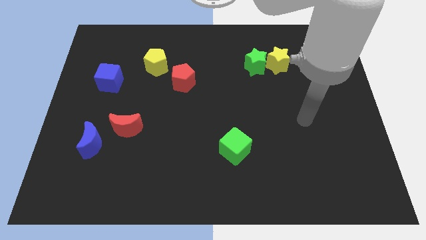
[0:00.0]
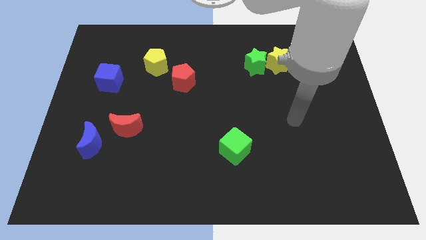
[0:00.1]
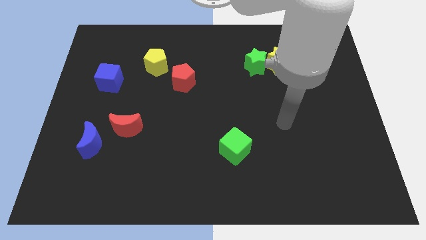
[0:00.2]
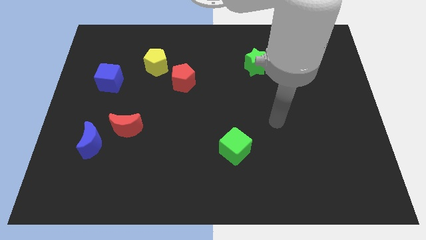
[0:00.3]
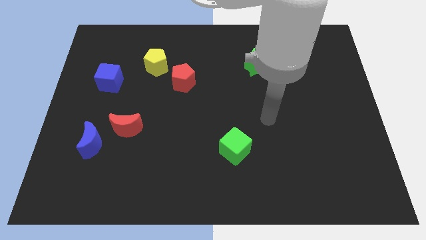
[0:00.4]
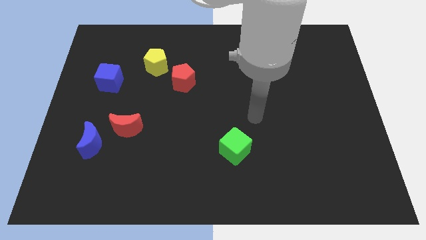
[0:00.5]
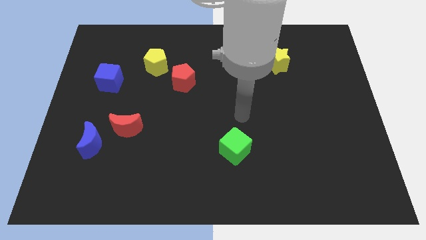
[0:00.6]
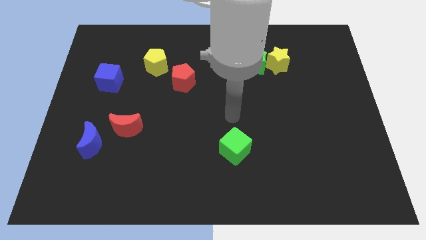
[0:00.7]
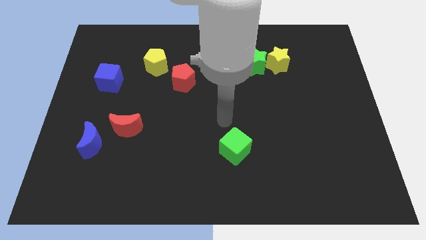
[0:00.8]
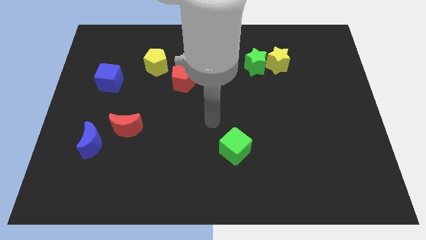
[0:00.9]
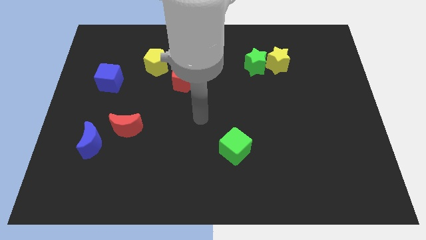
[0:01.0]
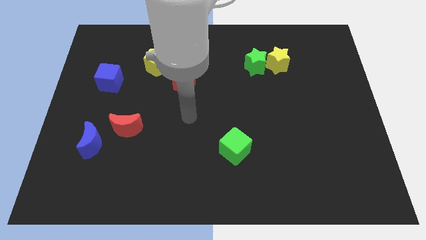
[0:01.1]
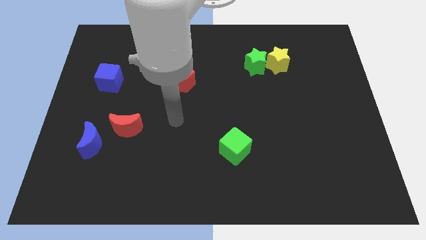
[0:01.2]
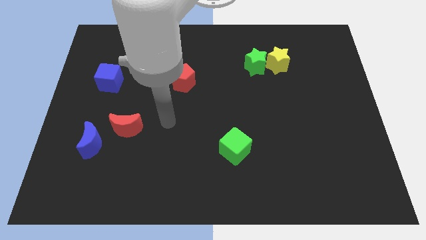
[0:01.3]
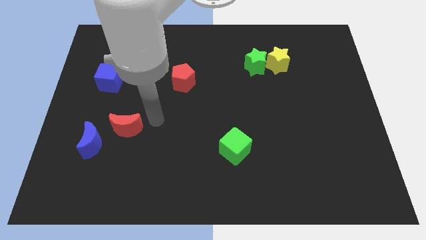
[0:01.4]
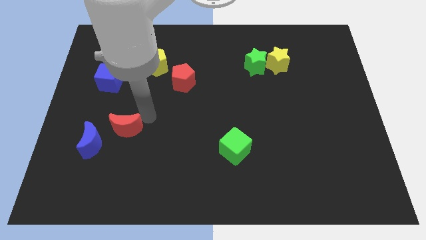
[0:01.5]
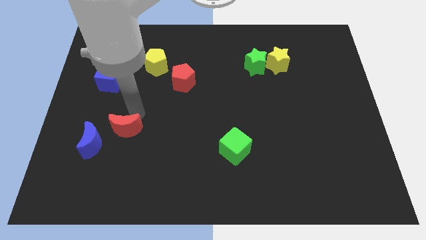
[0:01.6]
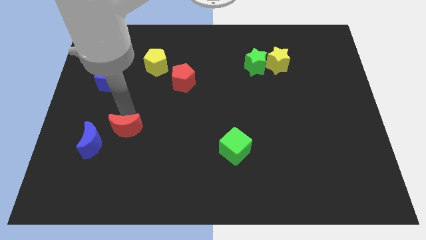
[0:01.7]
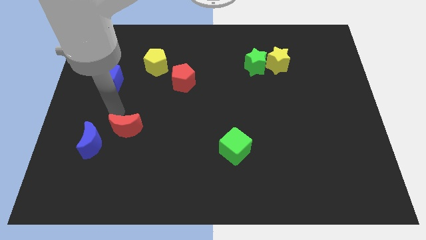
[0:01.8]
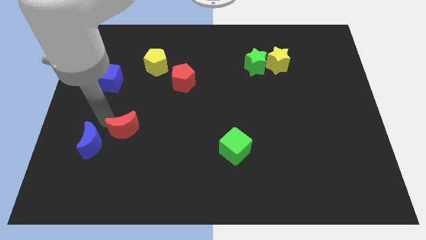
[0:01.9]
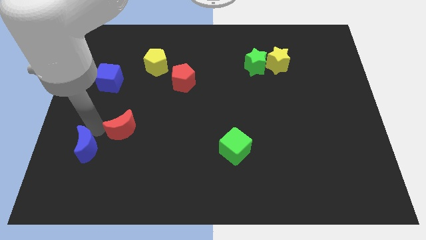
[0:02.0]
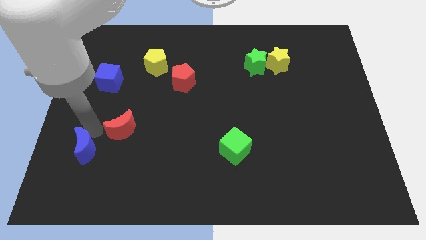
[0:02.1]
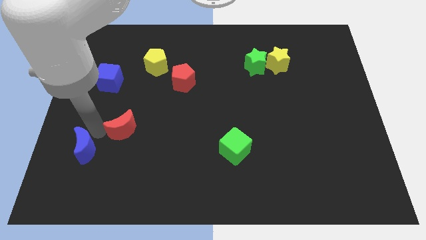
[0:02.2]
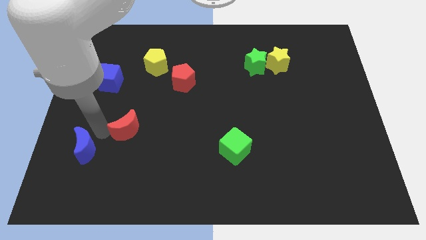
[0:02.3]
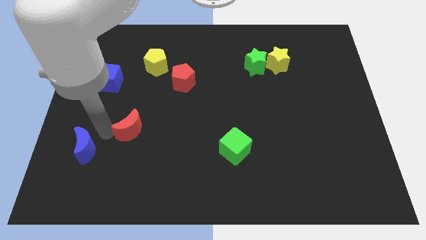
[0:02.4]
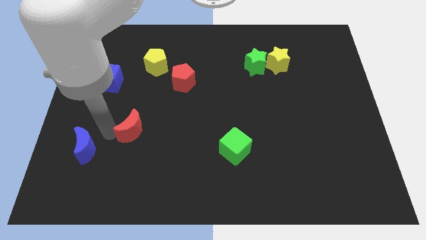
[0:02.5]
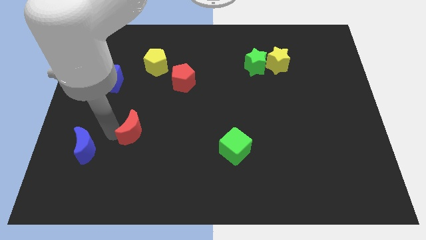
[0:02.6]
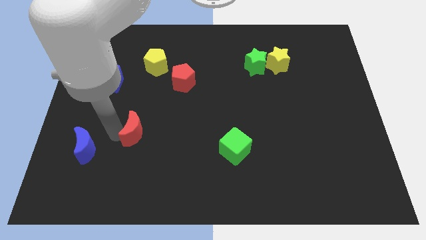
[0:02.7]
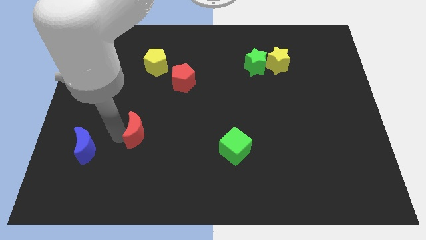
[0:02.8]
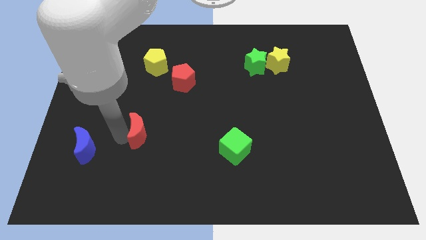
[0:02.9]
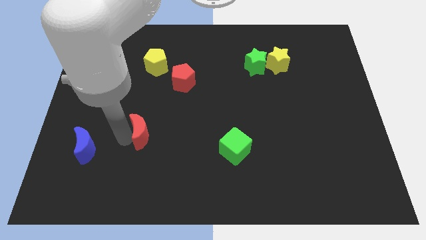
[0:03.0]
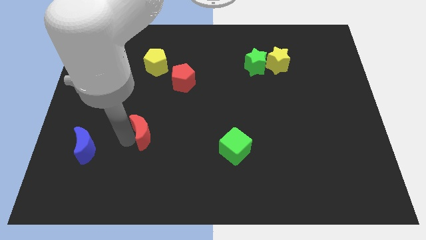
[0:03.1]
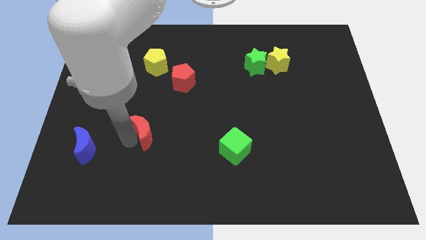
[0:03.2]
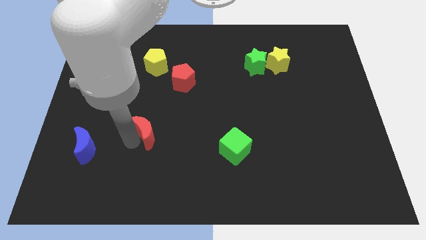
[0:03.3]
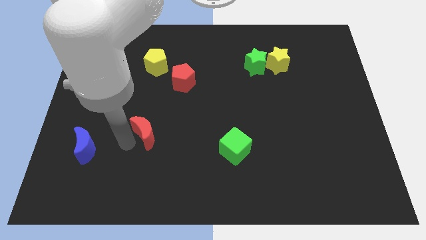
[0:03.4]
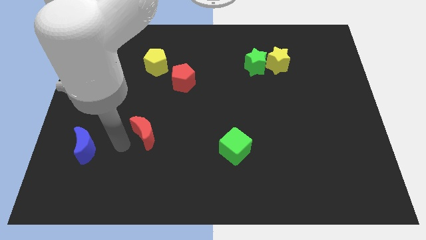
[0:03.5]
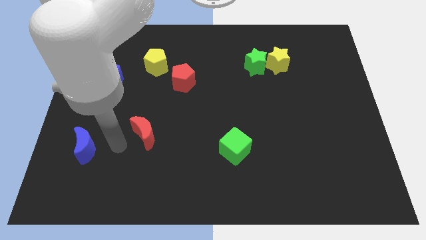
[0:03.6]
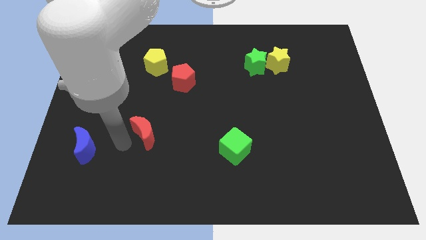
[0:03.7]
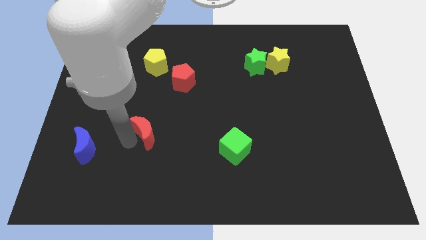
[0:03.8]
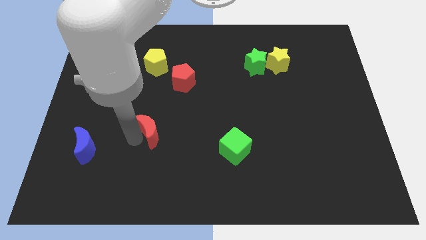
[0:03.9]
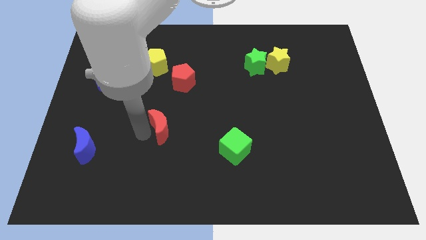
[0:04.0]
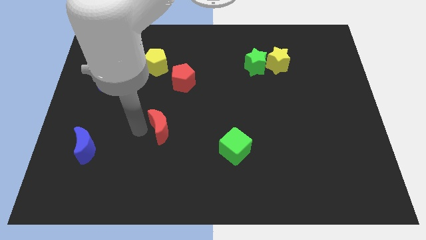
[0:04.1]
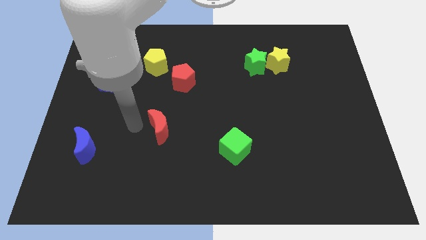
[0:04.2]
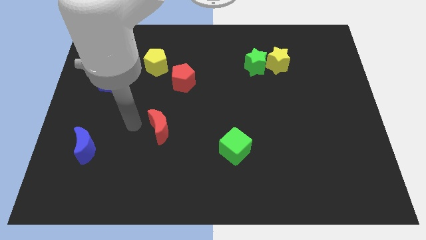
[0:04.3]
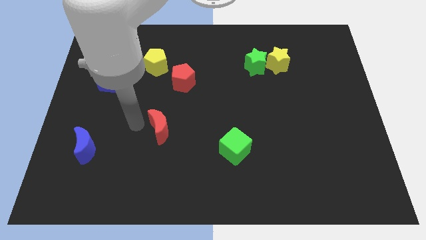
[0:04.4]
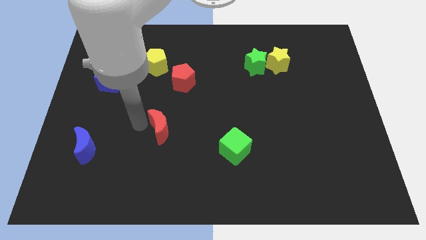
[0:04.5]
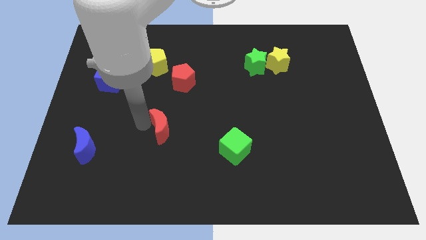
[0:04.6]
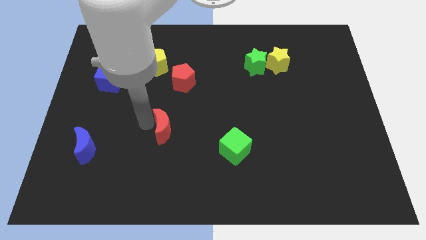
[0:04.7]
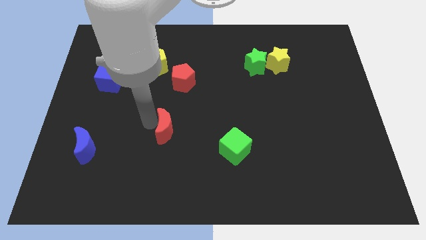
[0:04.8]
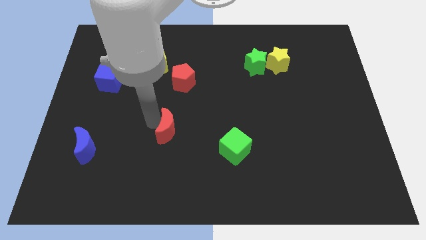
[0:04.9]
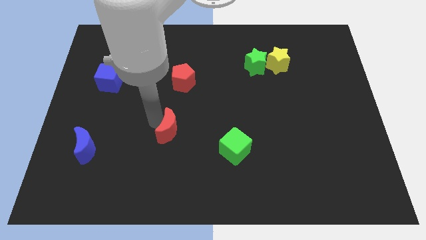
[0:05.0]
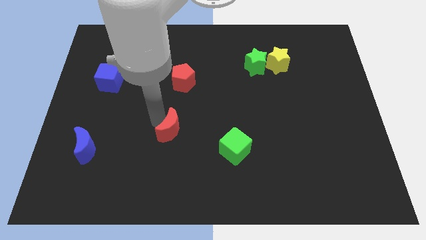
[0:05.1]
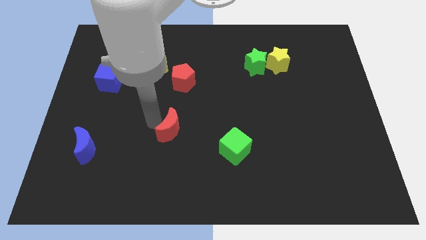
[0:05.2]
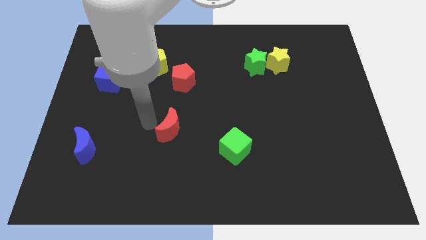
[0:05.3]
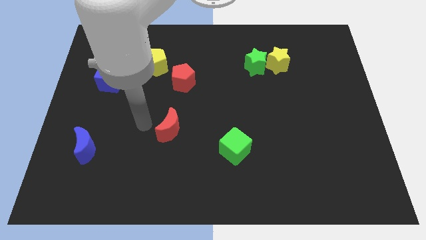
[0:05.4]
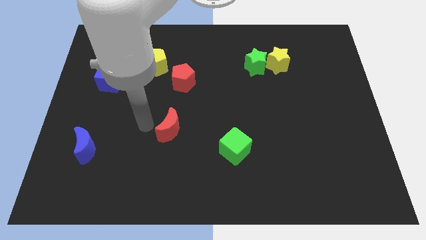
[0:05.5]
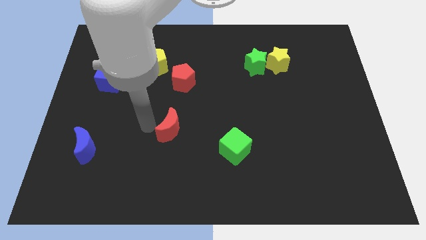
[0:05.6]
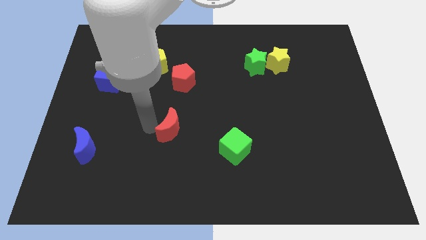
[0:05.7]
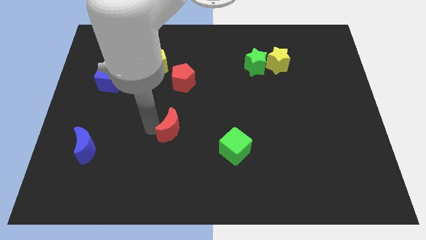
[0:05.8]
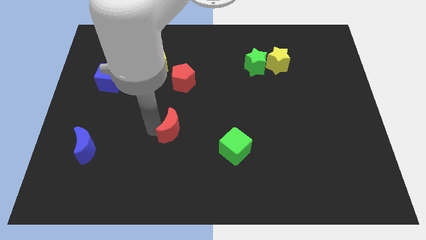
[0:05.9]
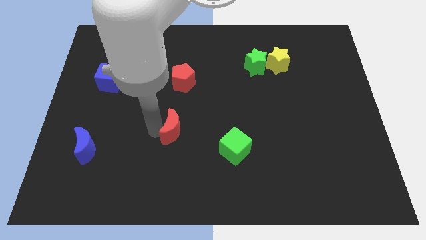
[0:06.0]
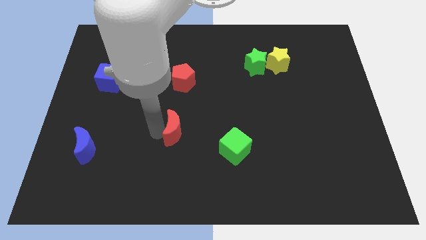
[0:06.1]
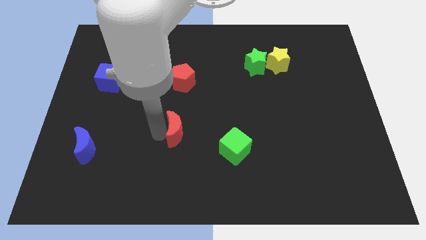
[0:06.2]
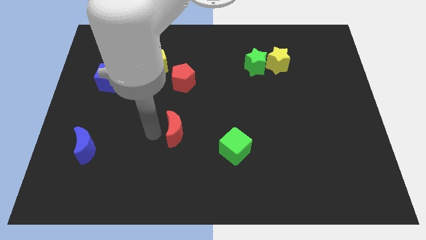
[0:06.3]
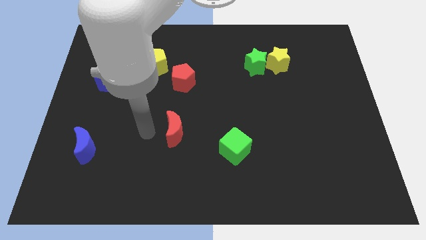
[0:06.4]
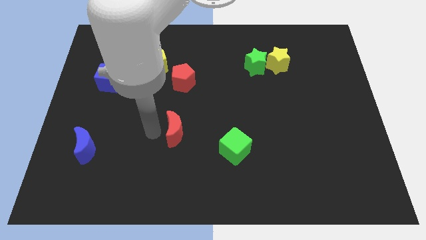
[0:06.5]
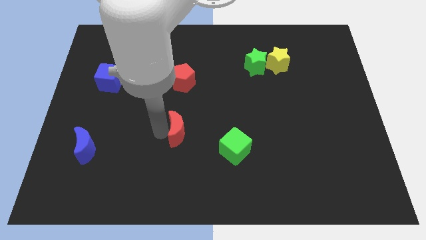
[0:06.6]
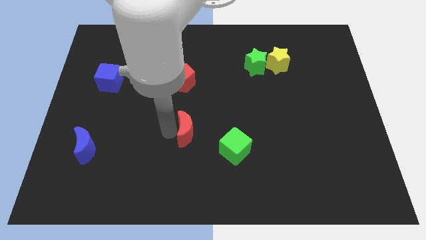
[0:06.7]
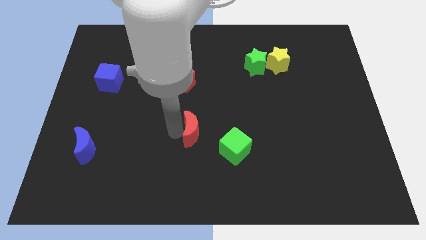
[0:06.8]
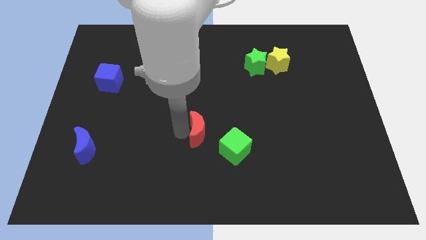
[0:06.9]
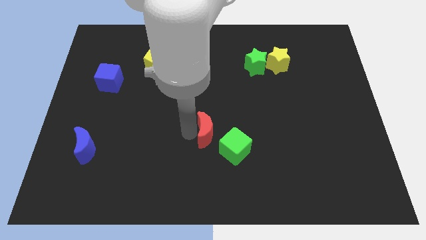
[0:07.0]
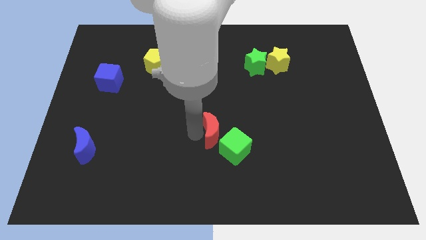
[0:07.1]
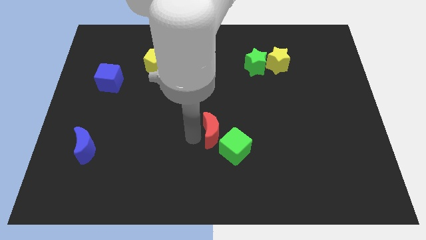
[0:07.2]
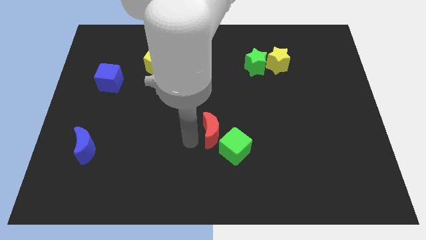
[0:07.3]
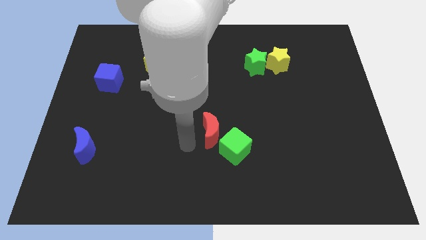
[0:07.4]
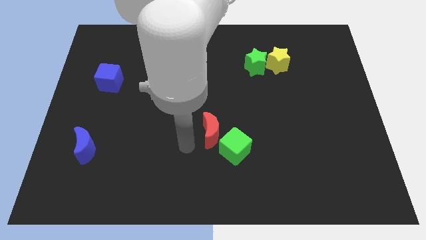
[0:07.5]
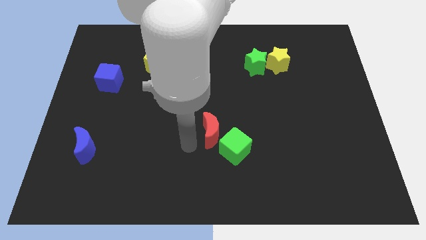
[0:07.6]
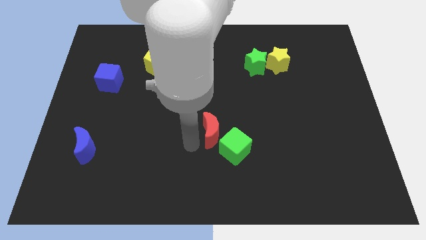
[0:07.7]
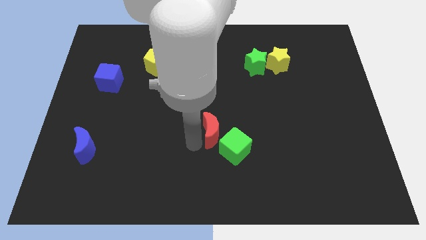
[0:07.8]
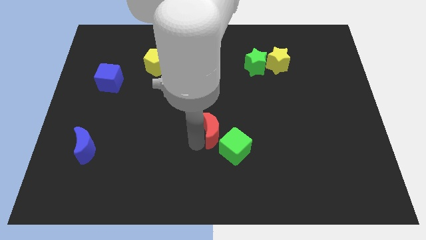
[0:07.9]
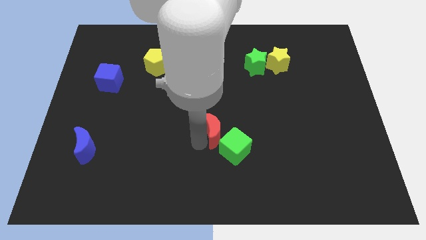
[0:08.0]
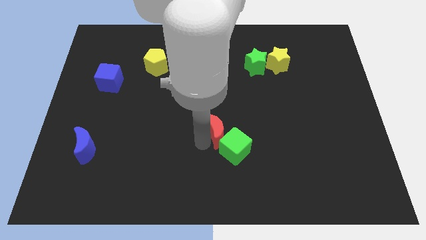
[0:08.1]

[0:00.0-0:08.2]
slide the red moon to the right
